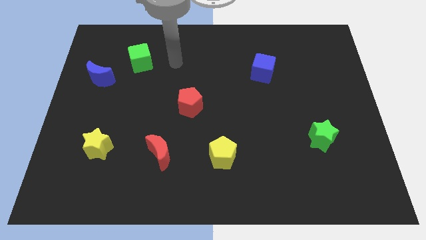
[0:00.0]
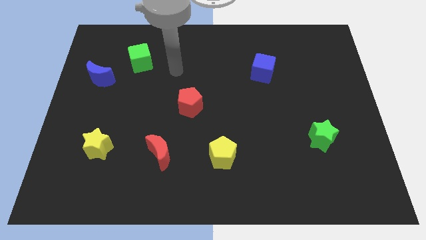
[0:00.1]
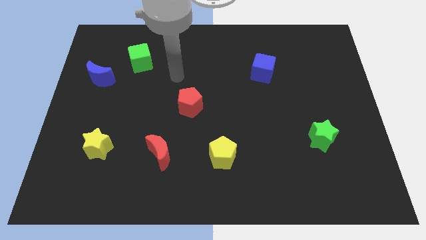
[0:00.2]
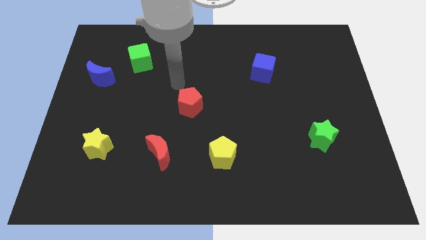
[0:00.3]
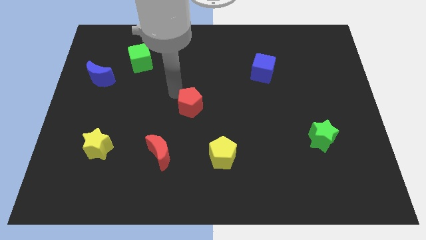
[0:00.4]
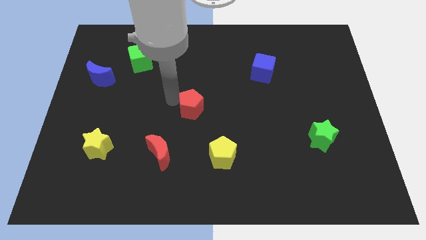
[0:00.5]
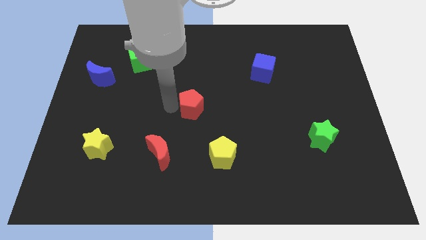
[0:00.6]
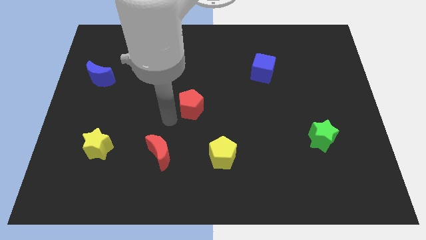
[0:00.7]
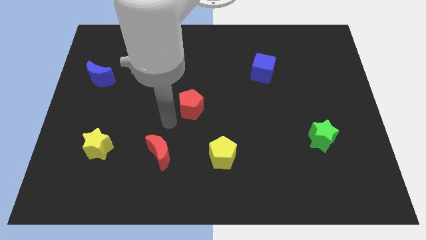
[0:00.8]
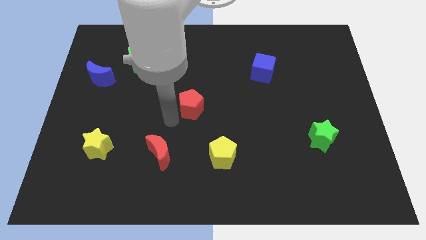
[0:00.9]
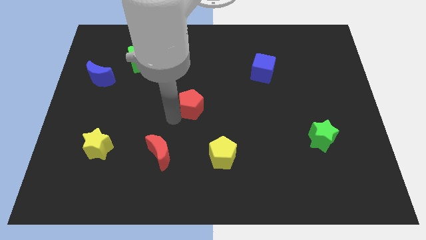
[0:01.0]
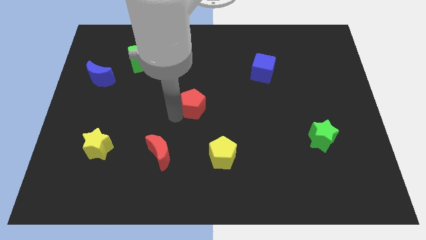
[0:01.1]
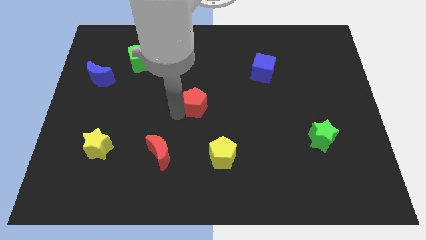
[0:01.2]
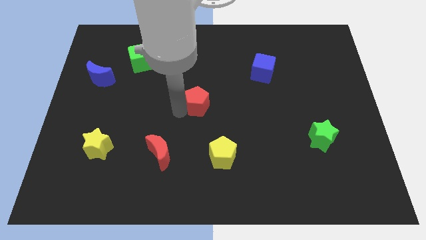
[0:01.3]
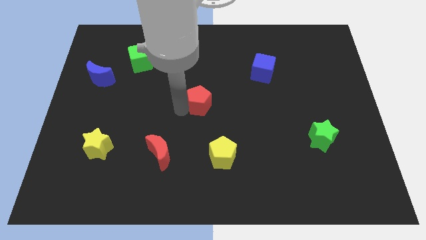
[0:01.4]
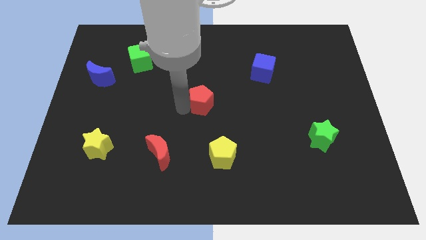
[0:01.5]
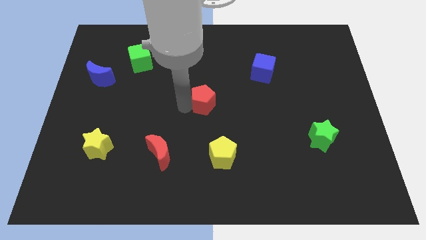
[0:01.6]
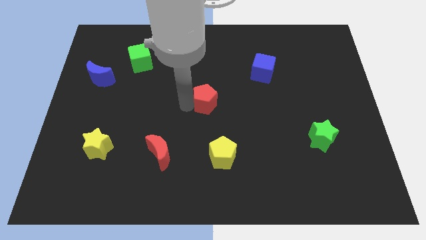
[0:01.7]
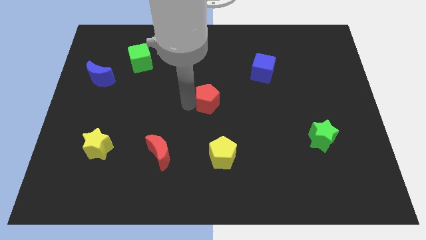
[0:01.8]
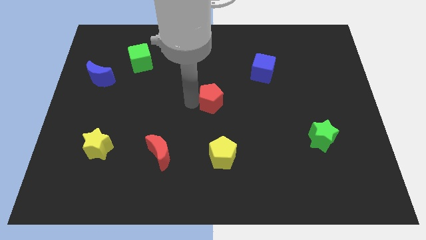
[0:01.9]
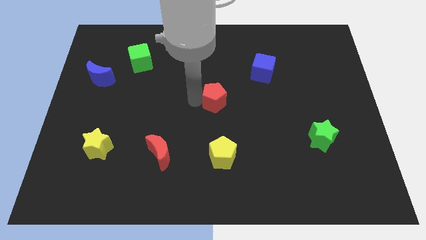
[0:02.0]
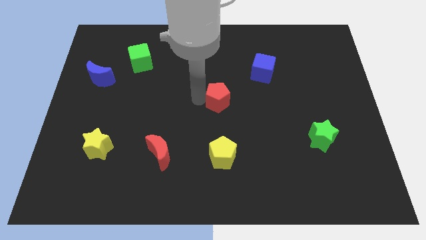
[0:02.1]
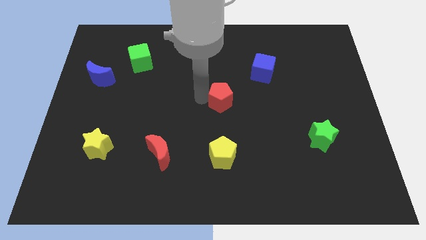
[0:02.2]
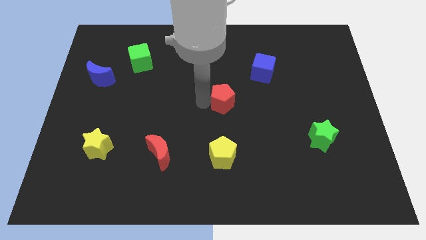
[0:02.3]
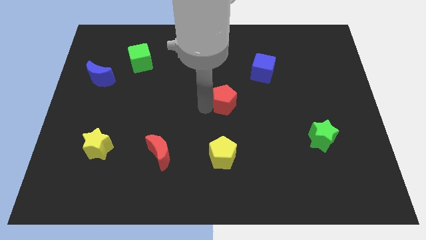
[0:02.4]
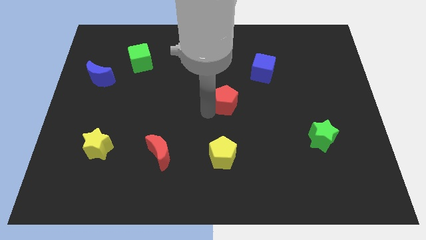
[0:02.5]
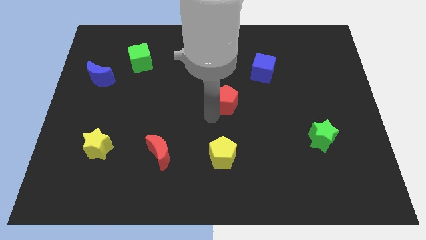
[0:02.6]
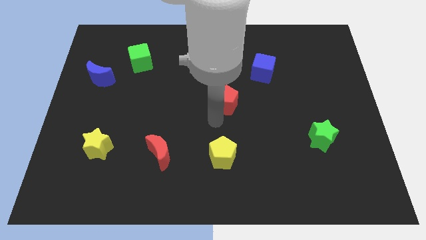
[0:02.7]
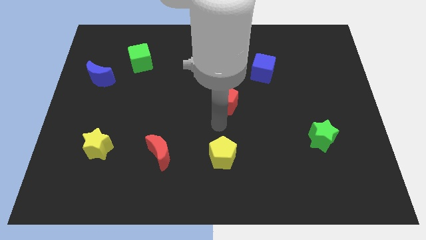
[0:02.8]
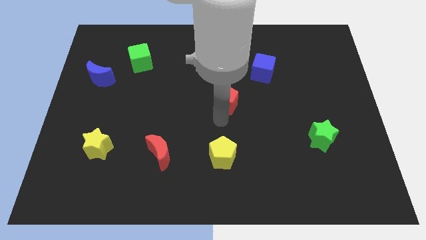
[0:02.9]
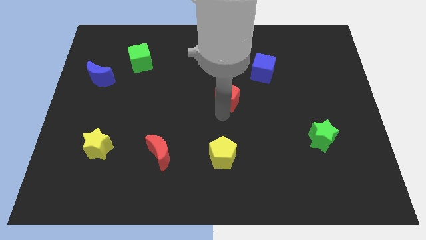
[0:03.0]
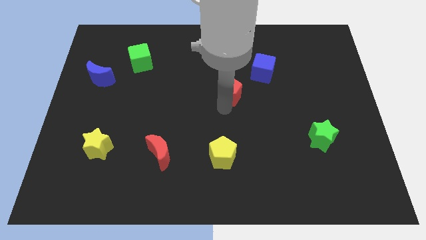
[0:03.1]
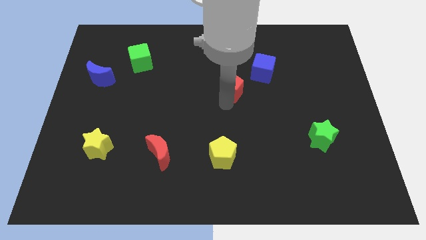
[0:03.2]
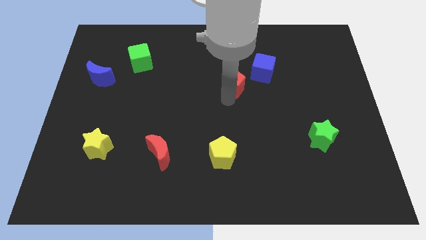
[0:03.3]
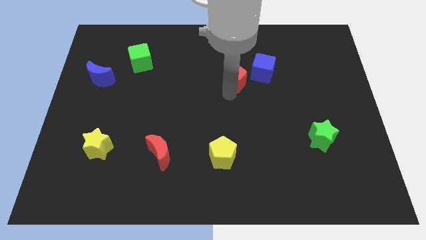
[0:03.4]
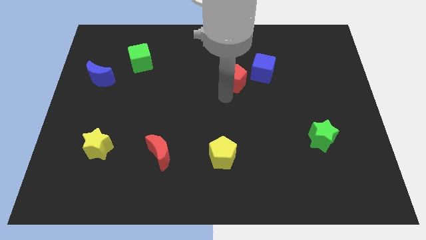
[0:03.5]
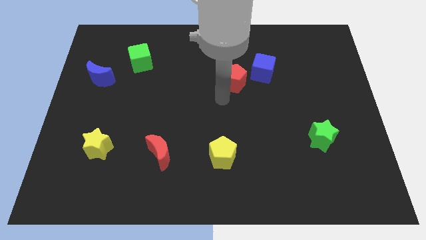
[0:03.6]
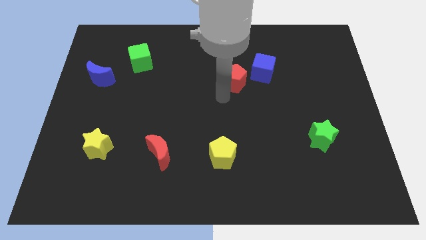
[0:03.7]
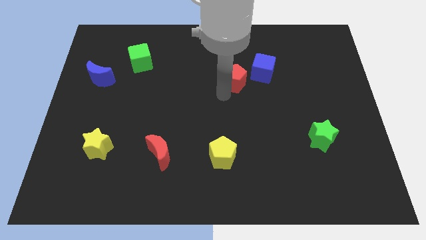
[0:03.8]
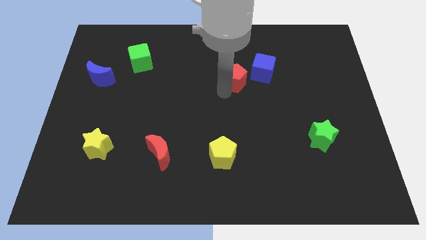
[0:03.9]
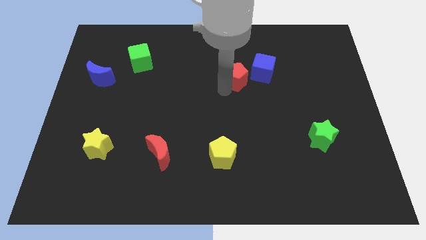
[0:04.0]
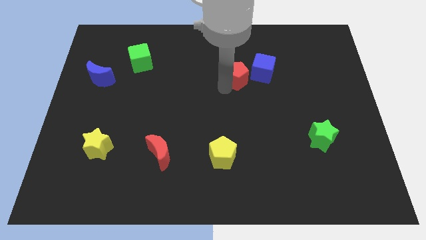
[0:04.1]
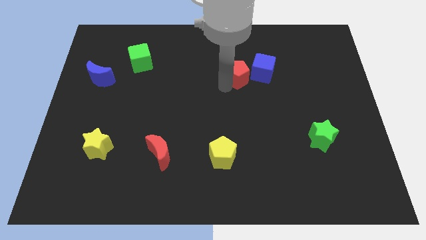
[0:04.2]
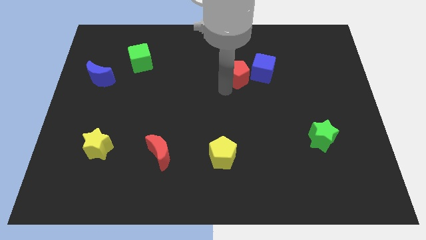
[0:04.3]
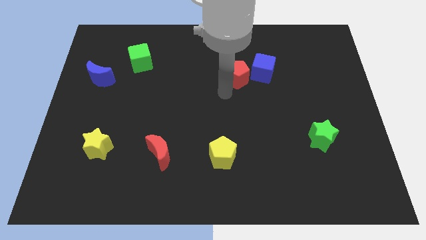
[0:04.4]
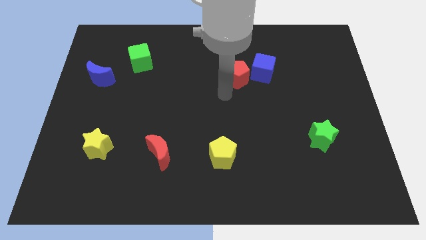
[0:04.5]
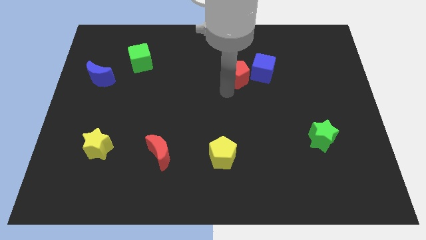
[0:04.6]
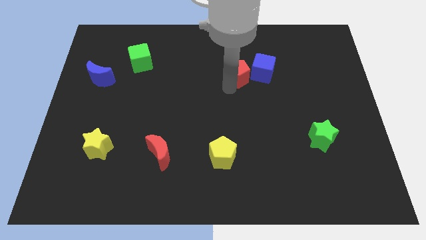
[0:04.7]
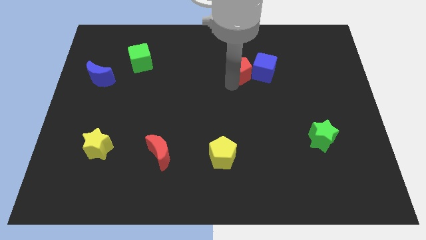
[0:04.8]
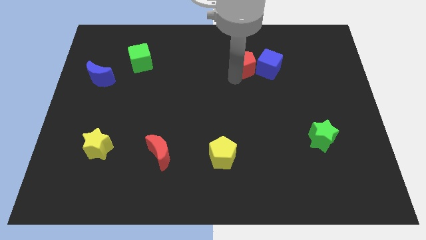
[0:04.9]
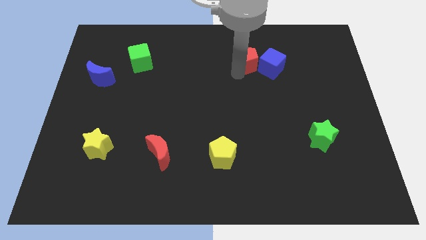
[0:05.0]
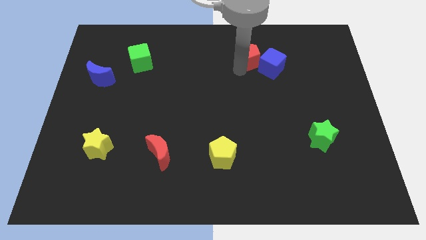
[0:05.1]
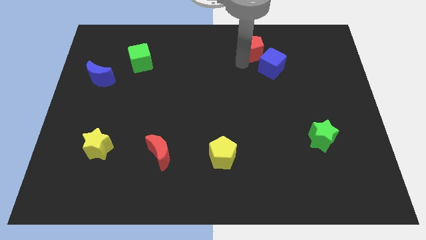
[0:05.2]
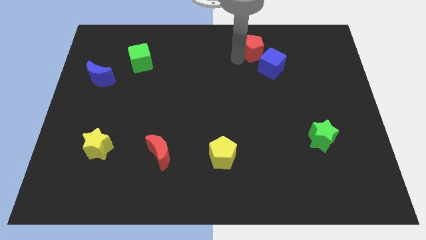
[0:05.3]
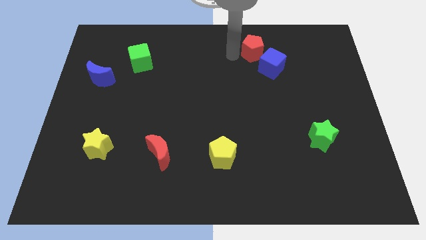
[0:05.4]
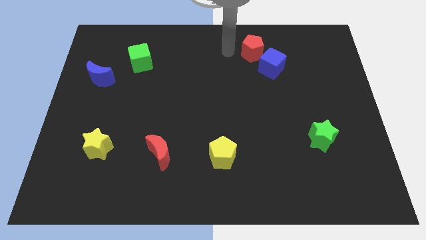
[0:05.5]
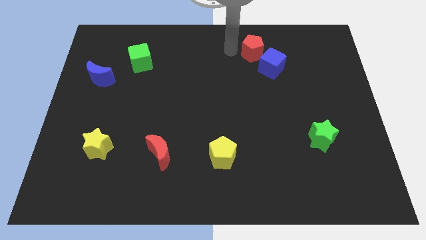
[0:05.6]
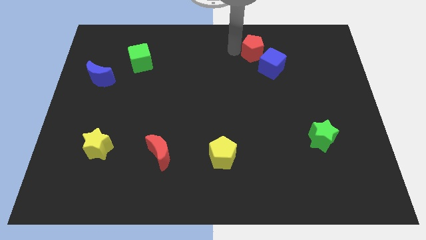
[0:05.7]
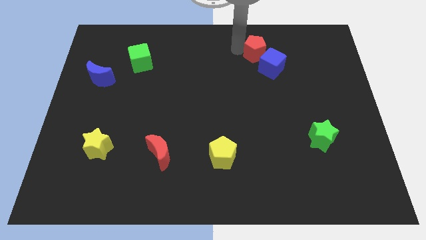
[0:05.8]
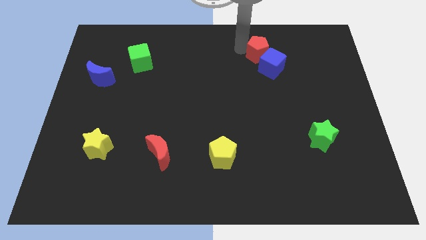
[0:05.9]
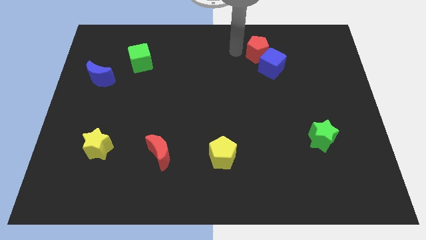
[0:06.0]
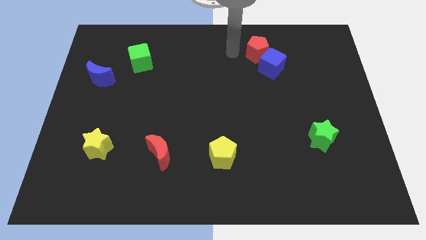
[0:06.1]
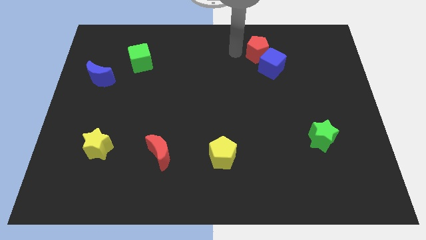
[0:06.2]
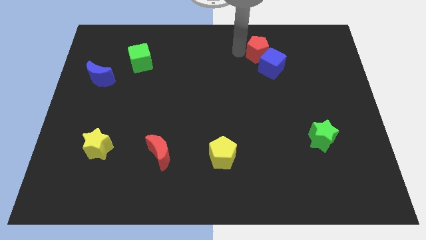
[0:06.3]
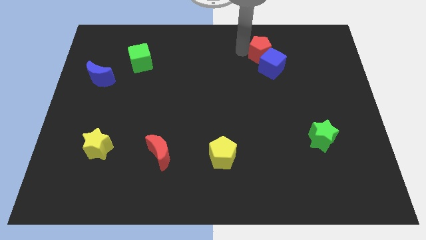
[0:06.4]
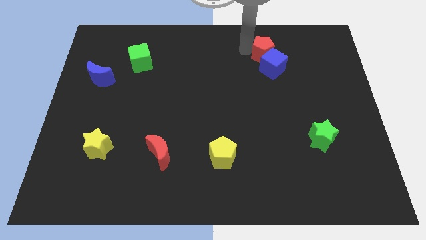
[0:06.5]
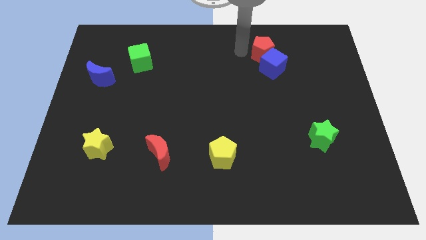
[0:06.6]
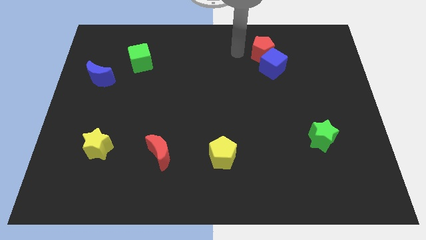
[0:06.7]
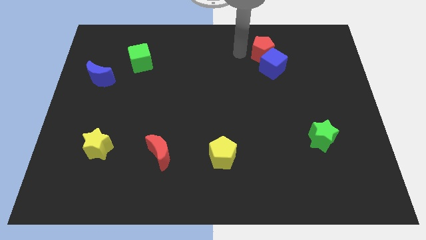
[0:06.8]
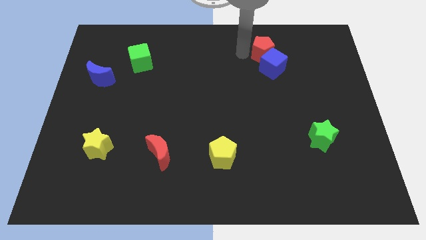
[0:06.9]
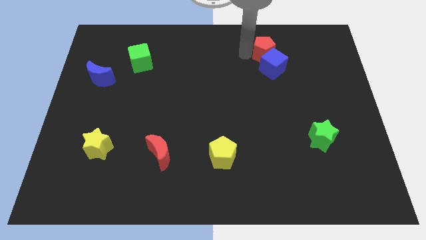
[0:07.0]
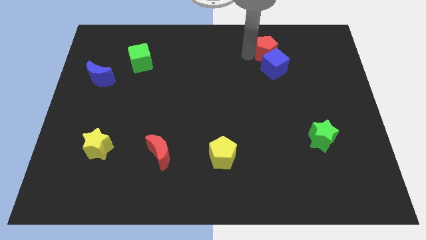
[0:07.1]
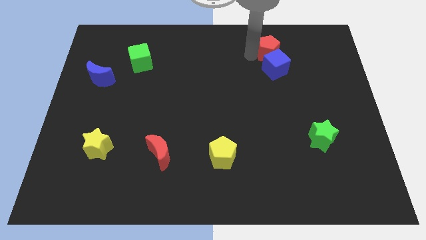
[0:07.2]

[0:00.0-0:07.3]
put the red pentagon to the top right of the blue cube

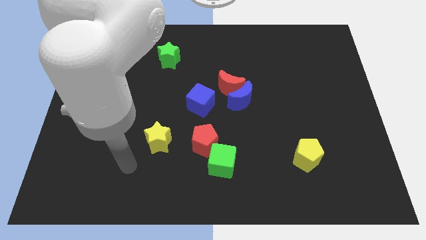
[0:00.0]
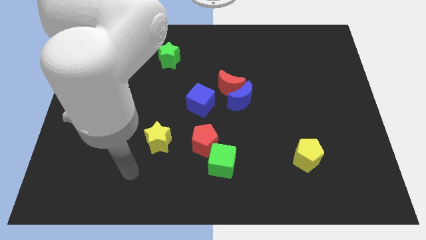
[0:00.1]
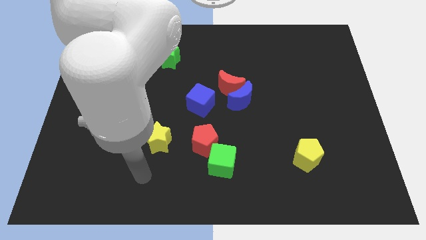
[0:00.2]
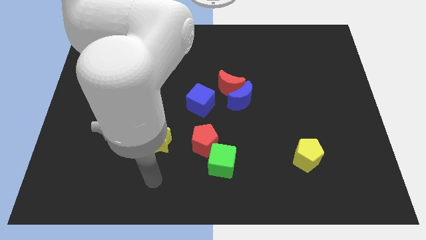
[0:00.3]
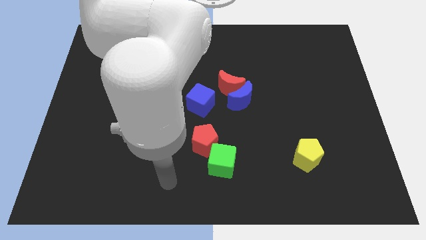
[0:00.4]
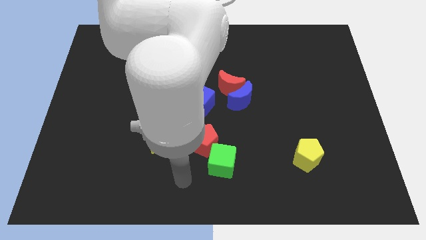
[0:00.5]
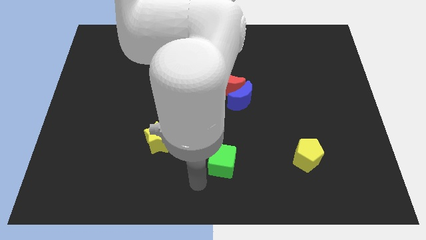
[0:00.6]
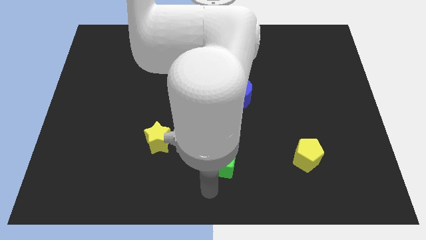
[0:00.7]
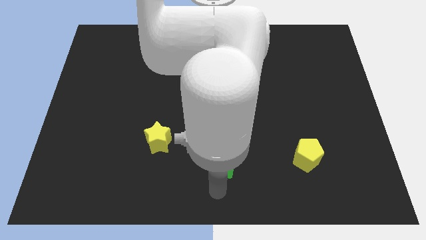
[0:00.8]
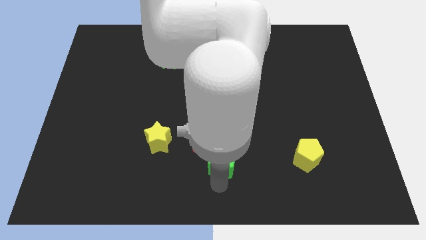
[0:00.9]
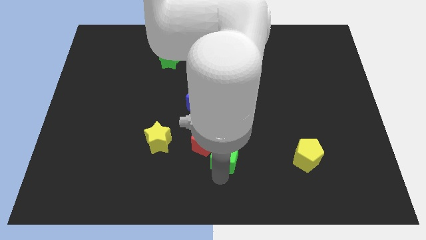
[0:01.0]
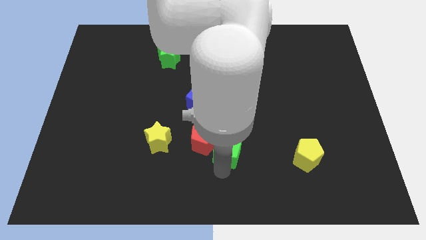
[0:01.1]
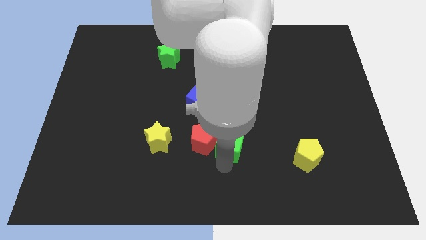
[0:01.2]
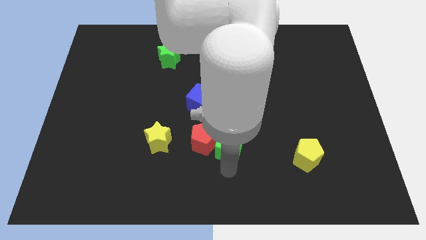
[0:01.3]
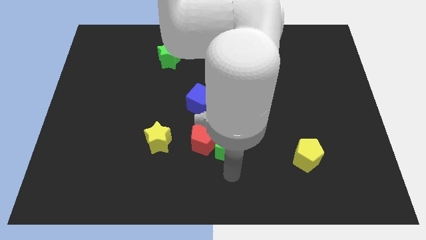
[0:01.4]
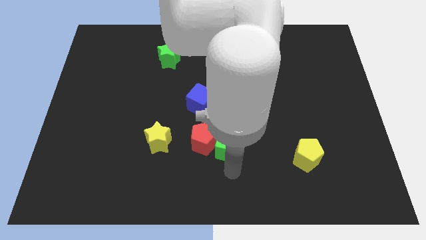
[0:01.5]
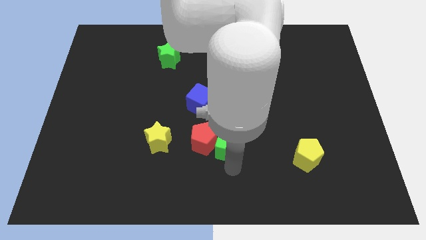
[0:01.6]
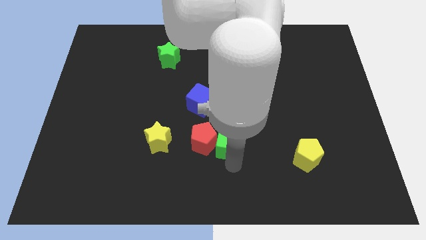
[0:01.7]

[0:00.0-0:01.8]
slide the green cube to the top right side of the red pentagon
